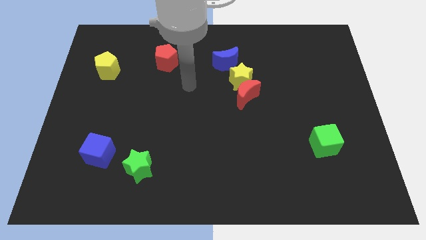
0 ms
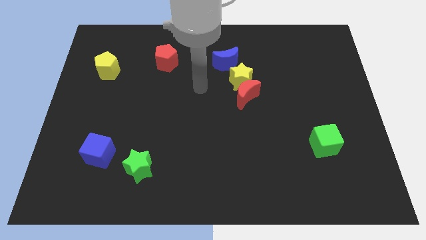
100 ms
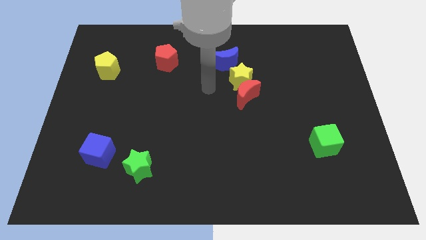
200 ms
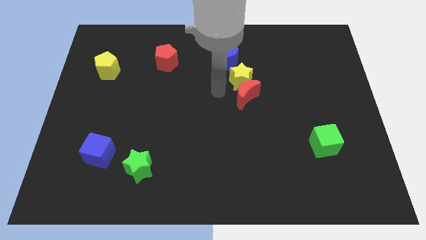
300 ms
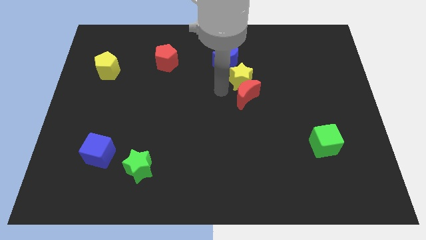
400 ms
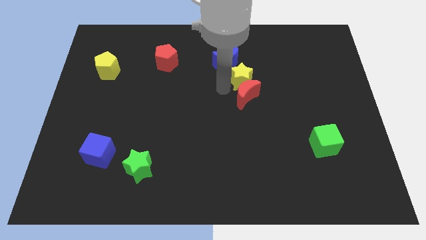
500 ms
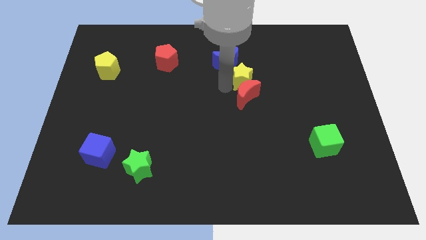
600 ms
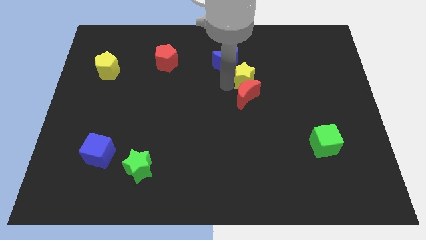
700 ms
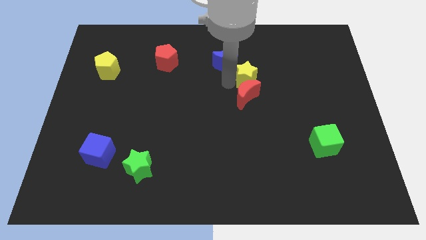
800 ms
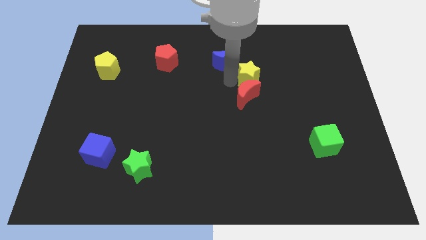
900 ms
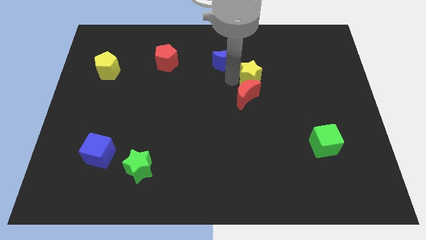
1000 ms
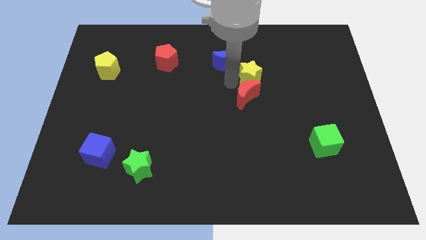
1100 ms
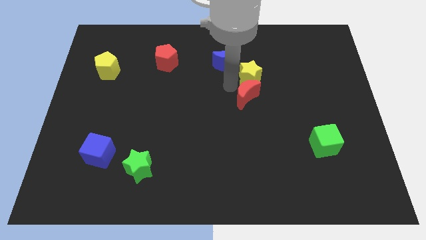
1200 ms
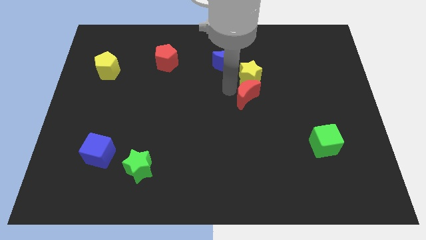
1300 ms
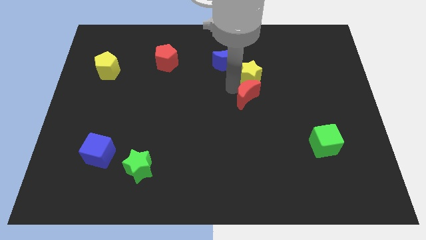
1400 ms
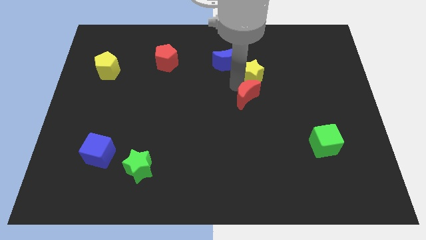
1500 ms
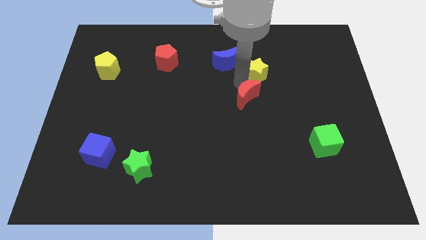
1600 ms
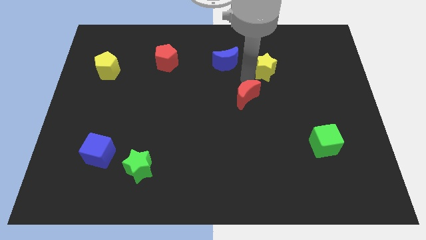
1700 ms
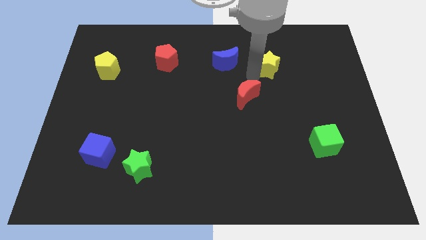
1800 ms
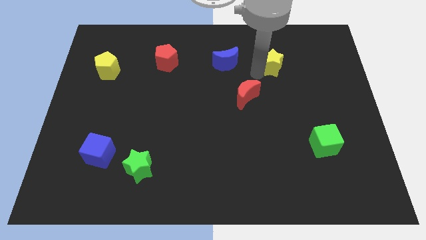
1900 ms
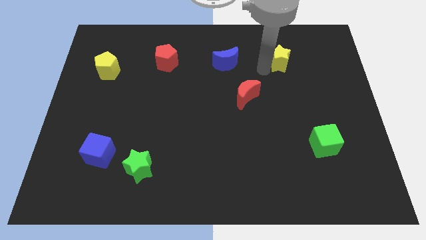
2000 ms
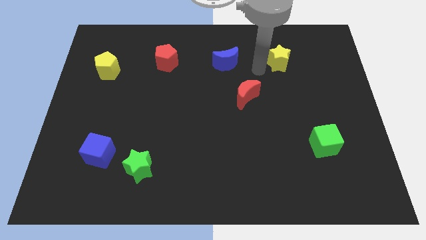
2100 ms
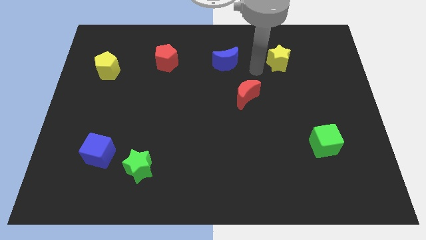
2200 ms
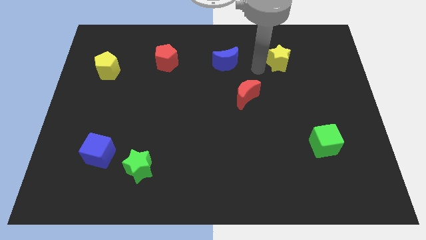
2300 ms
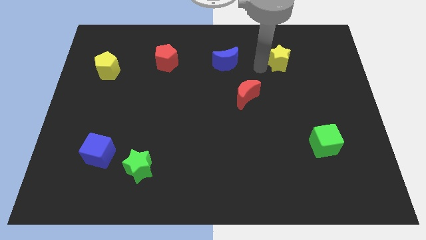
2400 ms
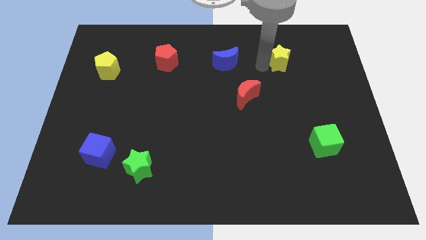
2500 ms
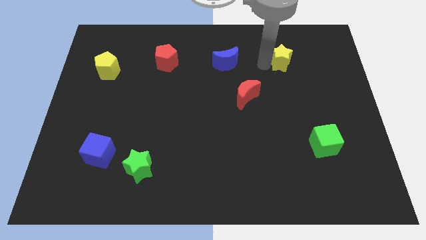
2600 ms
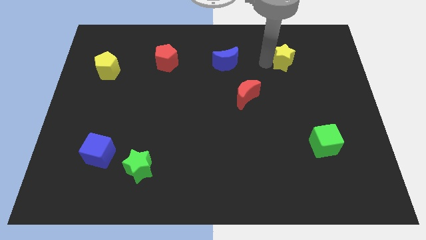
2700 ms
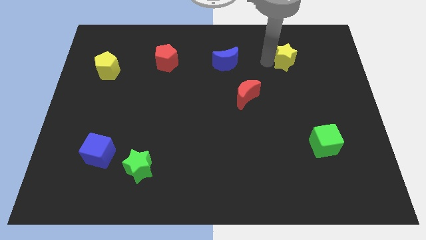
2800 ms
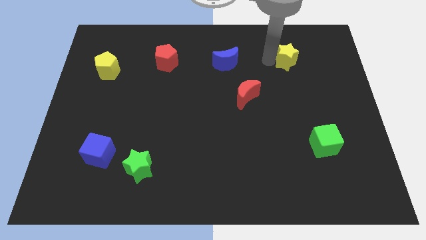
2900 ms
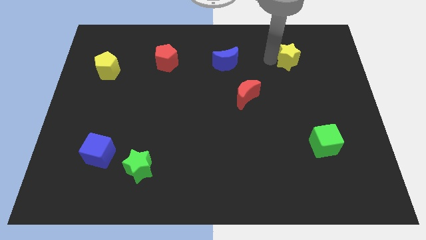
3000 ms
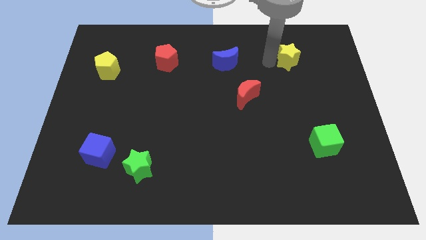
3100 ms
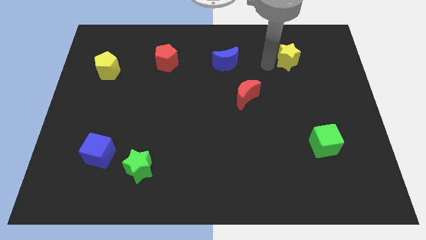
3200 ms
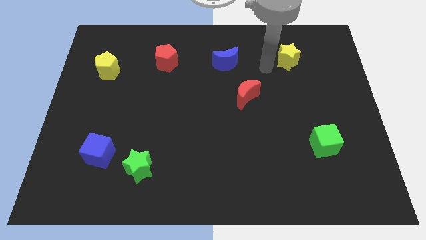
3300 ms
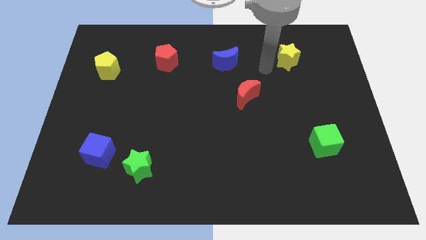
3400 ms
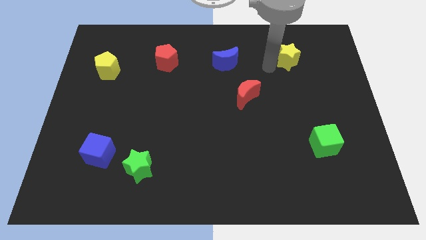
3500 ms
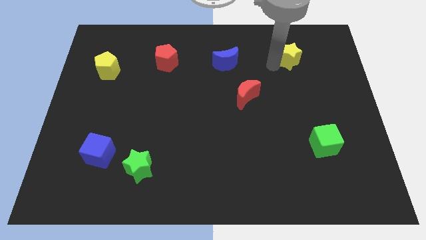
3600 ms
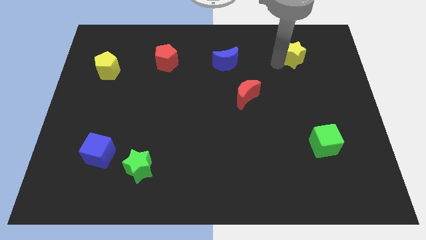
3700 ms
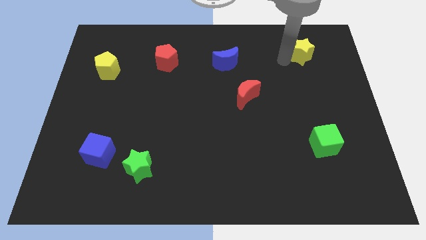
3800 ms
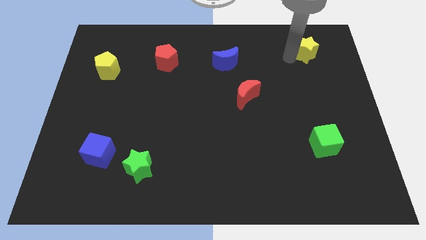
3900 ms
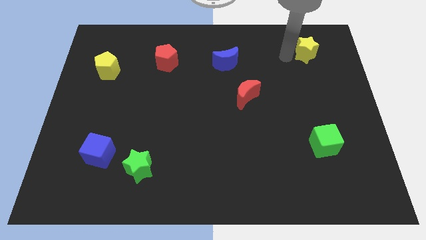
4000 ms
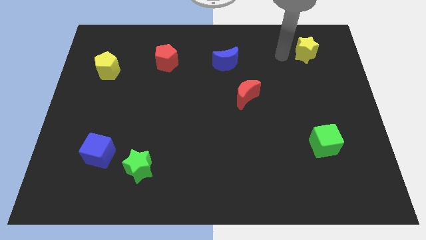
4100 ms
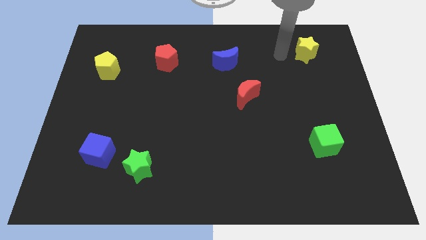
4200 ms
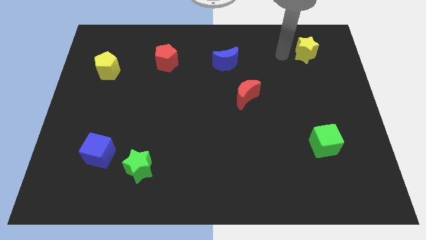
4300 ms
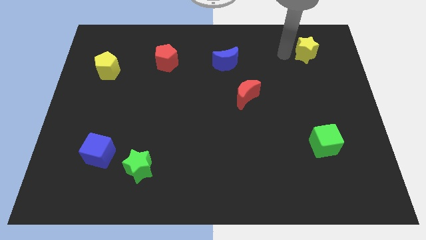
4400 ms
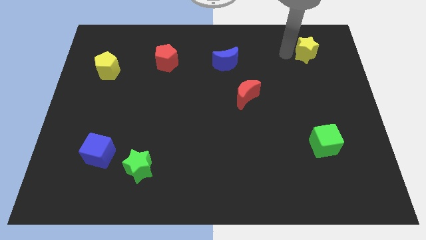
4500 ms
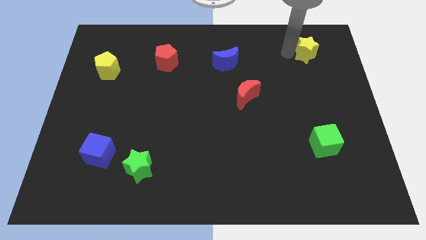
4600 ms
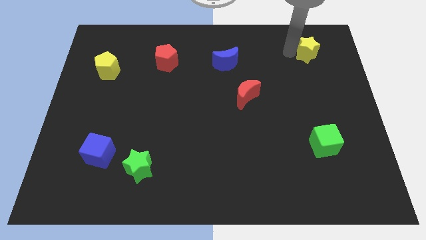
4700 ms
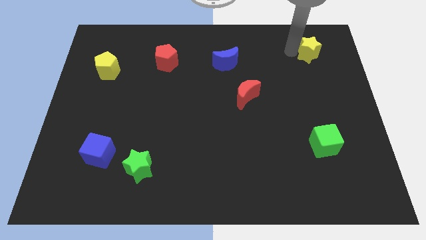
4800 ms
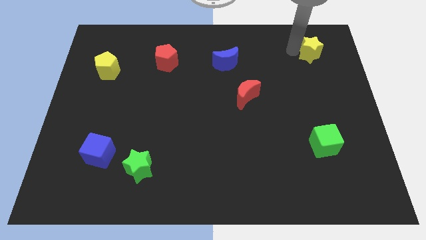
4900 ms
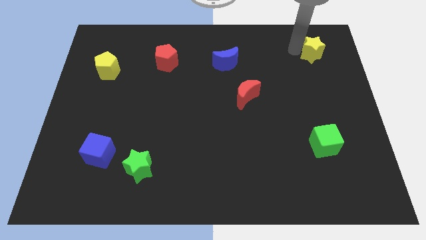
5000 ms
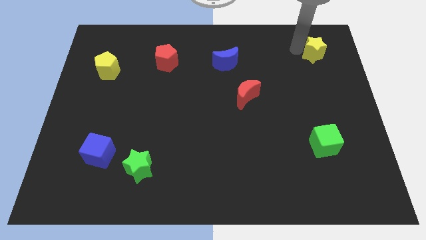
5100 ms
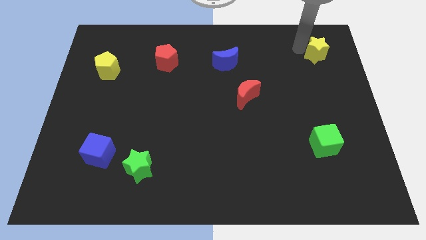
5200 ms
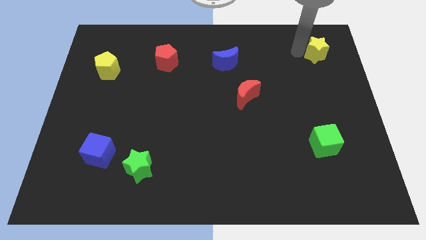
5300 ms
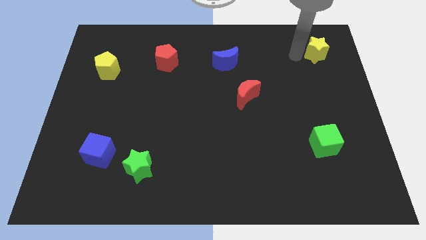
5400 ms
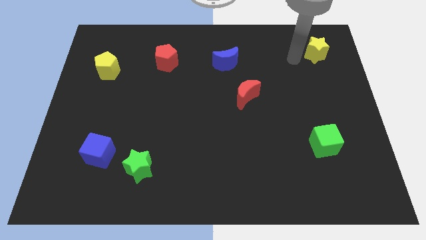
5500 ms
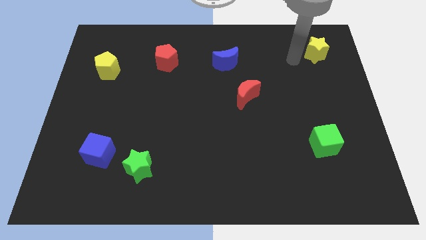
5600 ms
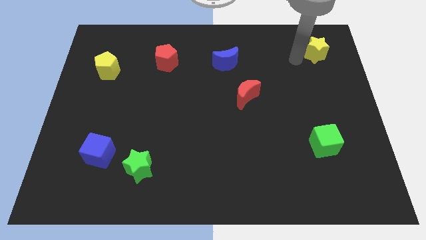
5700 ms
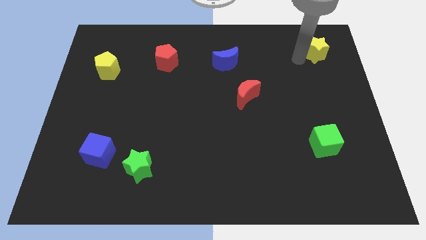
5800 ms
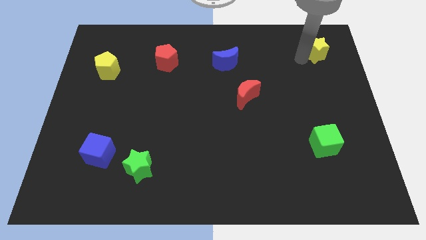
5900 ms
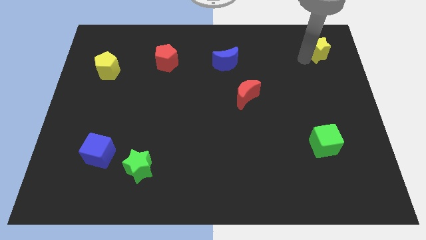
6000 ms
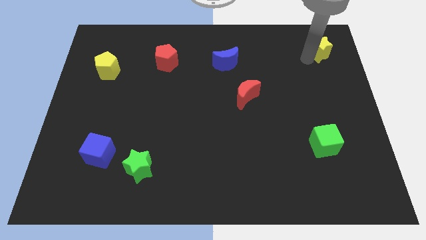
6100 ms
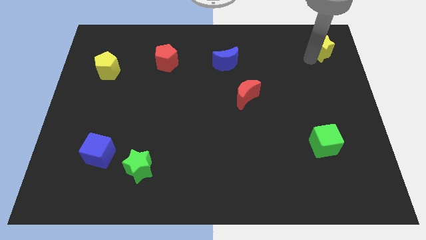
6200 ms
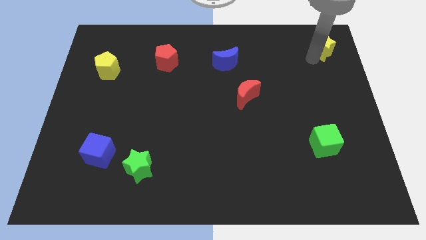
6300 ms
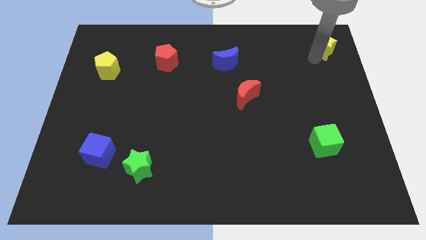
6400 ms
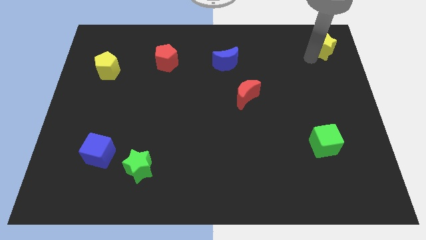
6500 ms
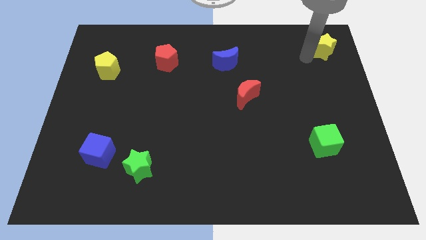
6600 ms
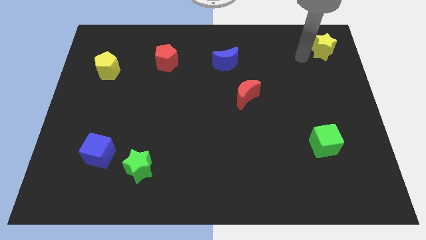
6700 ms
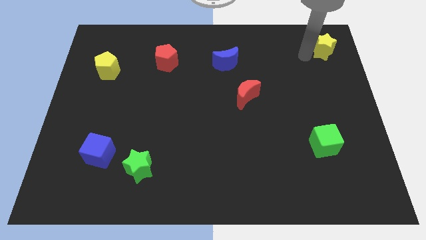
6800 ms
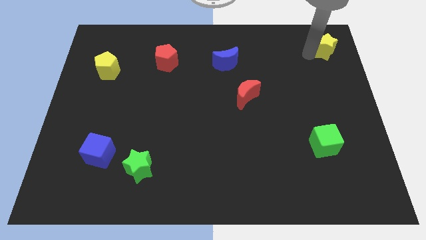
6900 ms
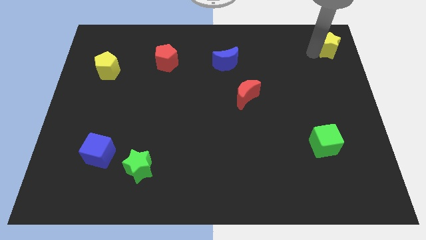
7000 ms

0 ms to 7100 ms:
put the yellow star to the top right
